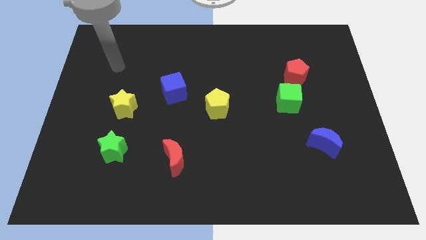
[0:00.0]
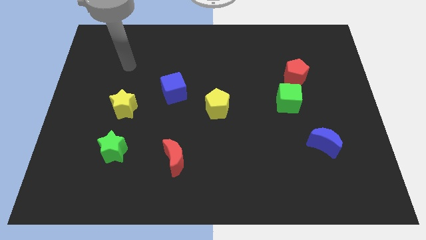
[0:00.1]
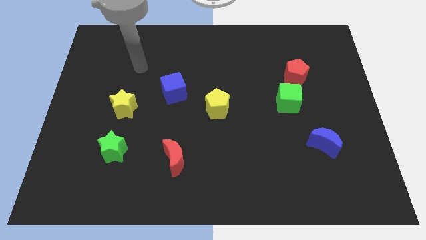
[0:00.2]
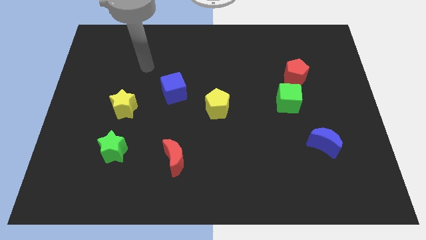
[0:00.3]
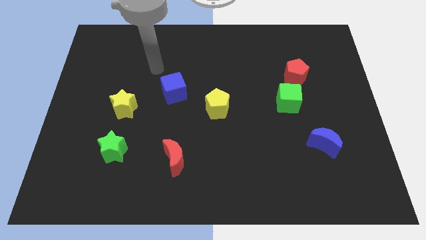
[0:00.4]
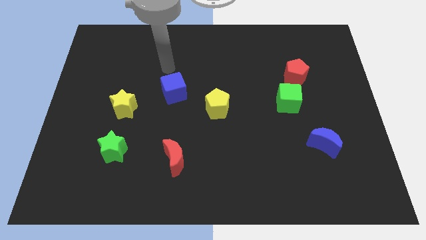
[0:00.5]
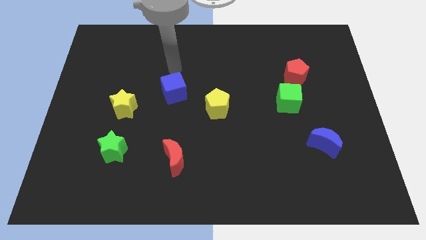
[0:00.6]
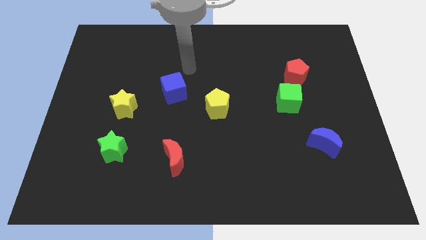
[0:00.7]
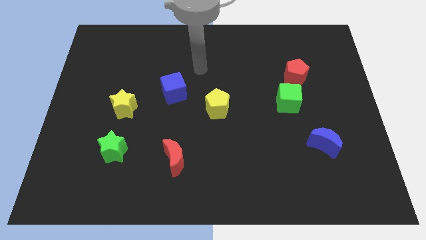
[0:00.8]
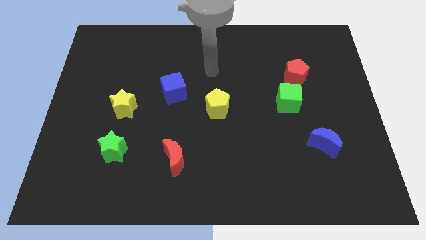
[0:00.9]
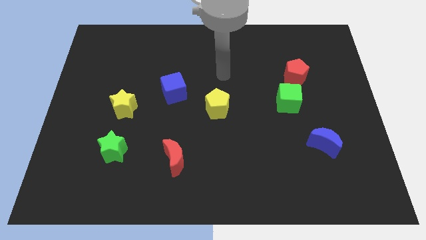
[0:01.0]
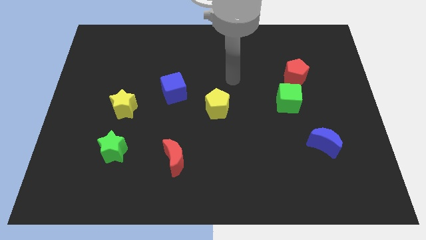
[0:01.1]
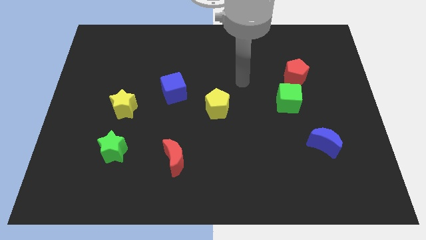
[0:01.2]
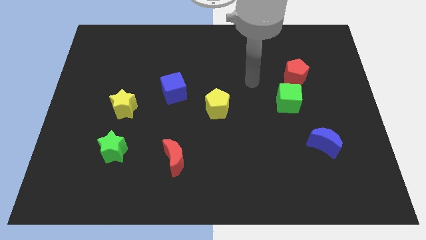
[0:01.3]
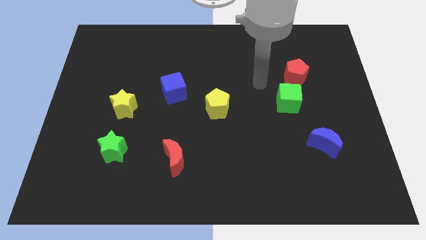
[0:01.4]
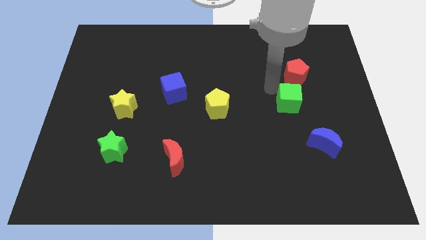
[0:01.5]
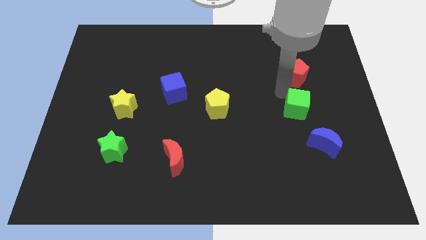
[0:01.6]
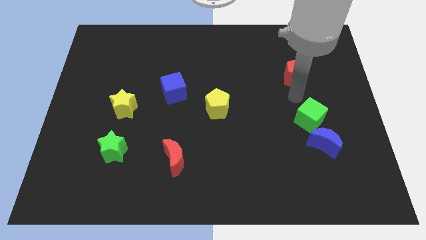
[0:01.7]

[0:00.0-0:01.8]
pull the red pentagon apart from the green cube

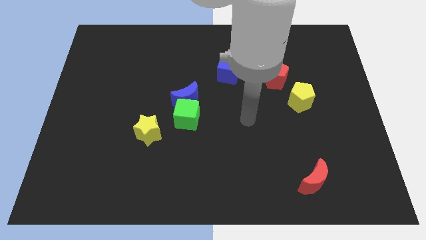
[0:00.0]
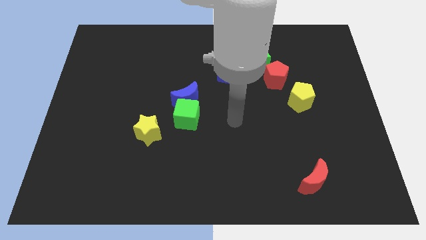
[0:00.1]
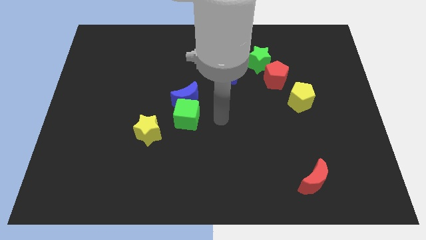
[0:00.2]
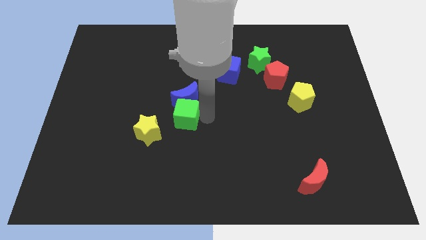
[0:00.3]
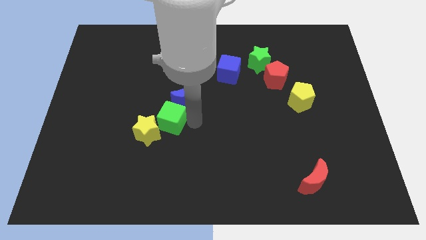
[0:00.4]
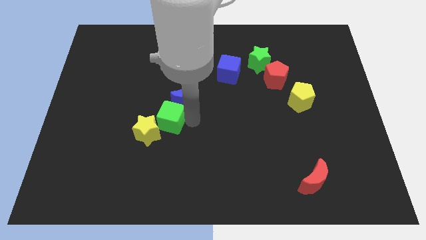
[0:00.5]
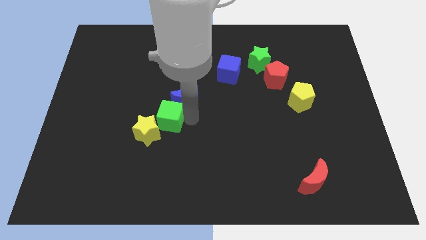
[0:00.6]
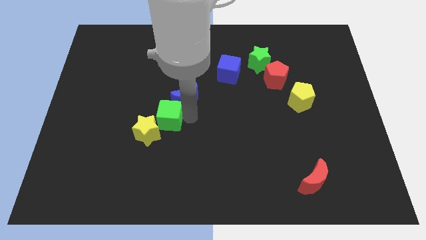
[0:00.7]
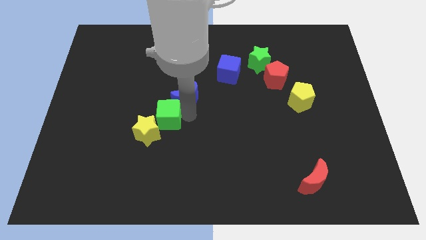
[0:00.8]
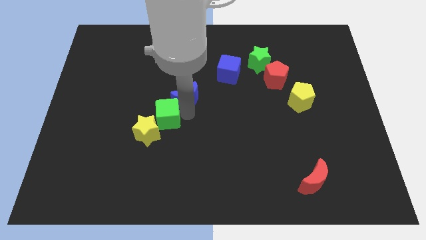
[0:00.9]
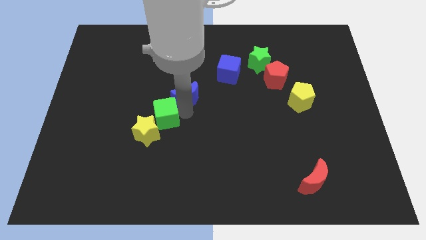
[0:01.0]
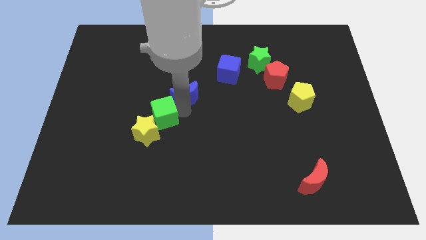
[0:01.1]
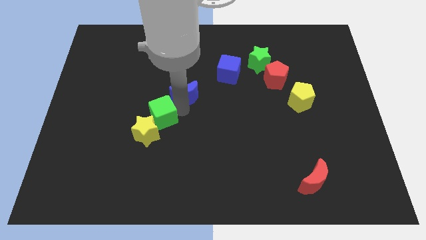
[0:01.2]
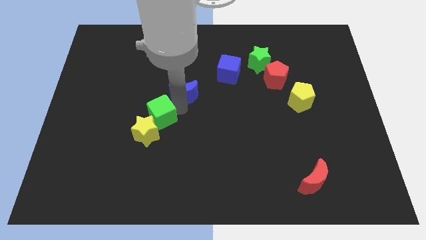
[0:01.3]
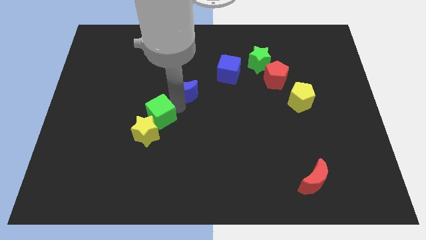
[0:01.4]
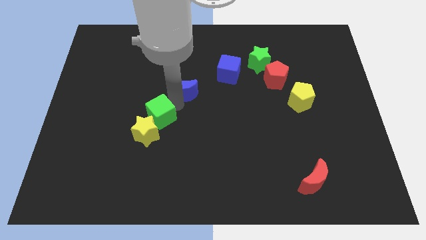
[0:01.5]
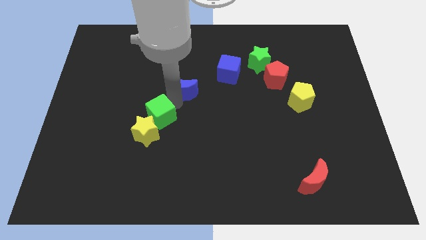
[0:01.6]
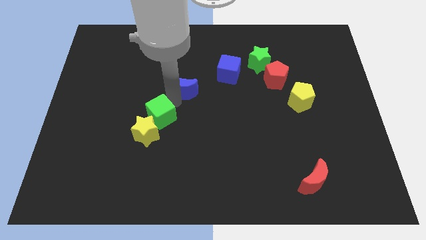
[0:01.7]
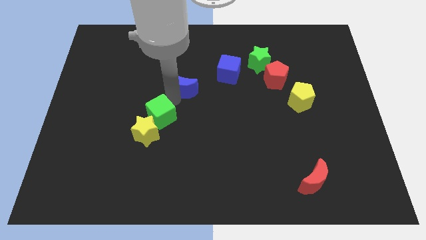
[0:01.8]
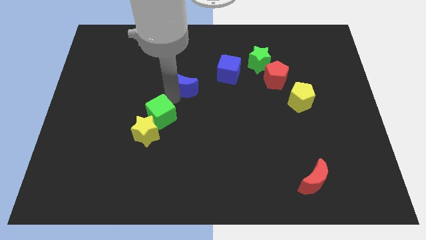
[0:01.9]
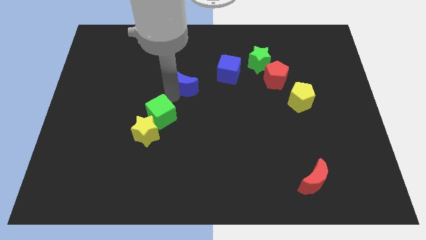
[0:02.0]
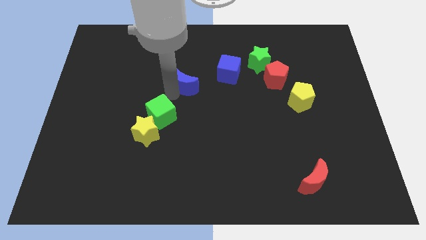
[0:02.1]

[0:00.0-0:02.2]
move the blue moon away from the green cube

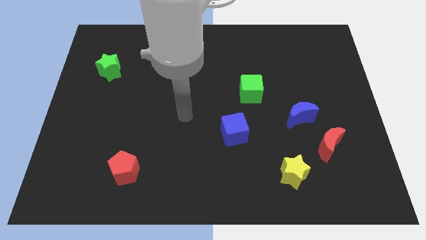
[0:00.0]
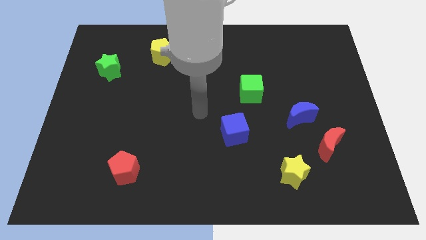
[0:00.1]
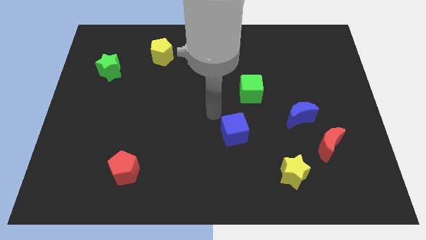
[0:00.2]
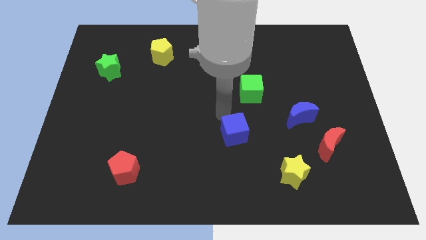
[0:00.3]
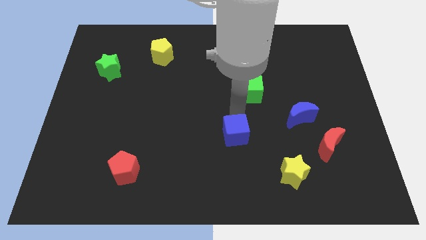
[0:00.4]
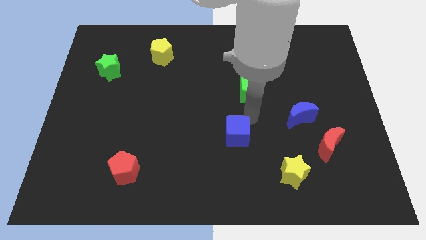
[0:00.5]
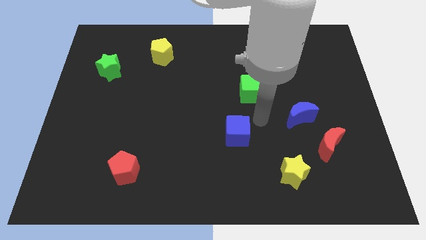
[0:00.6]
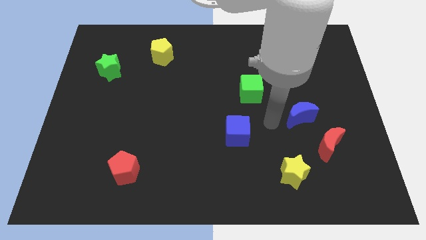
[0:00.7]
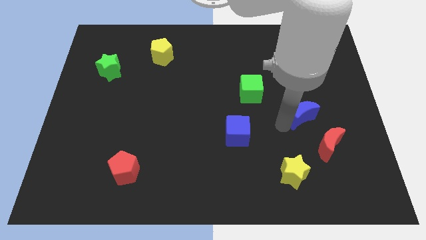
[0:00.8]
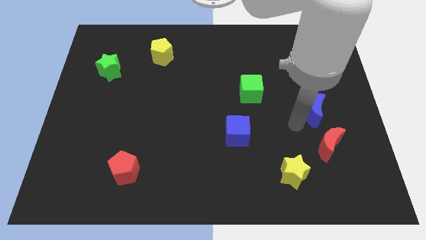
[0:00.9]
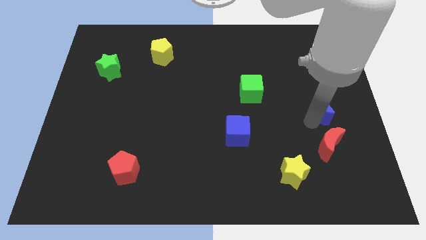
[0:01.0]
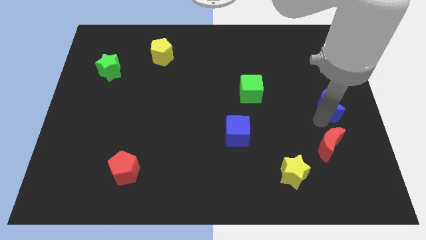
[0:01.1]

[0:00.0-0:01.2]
pull the red moon apart from the blue moon

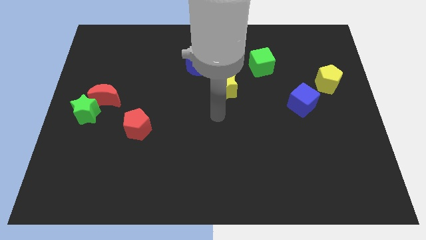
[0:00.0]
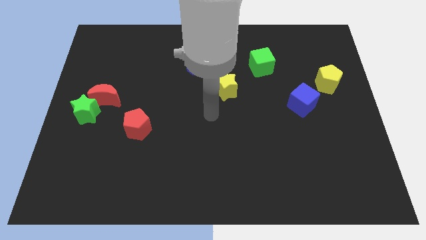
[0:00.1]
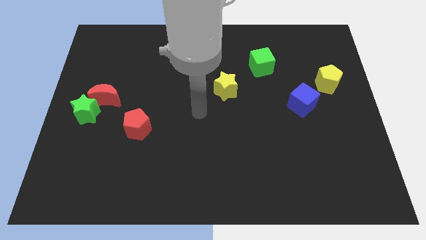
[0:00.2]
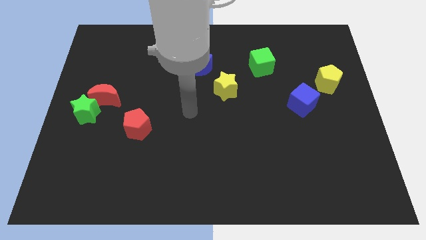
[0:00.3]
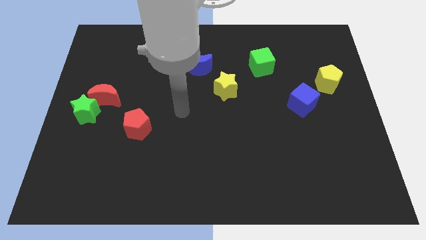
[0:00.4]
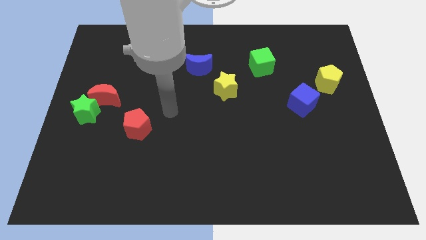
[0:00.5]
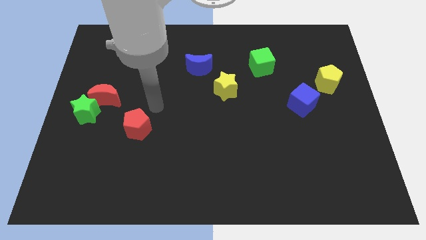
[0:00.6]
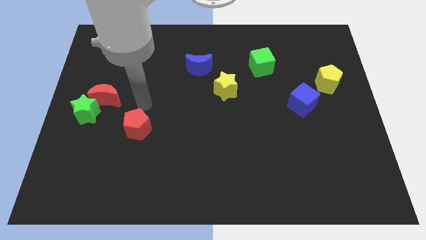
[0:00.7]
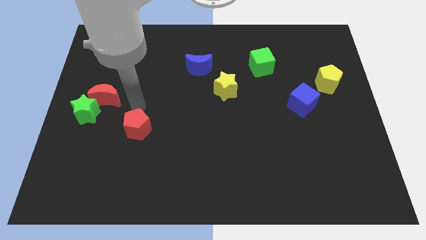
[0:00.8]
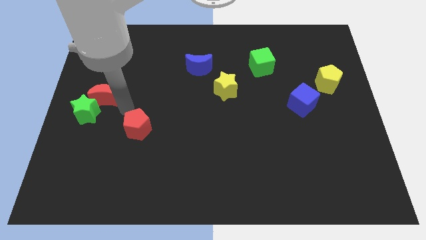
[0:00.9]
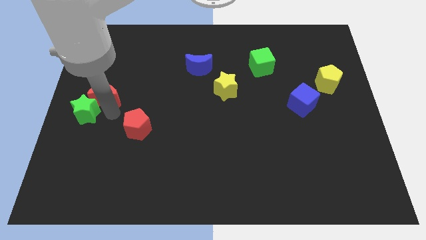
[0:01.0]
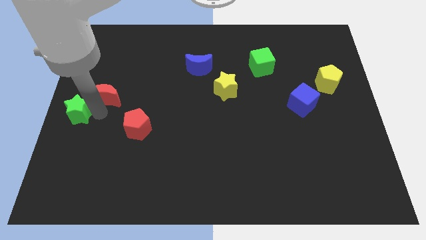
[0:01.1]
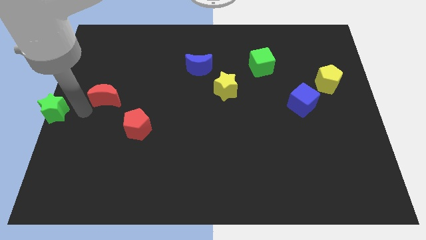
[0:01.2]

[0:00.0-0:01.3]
pull the red moon apart from the green star

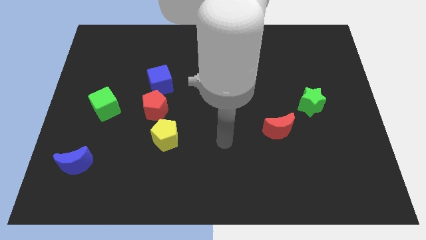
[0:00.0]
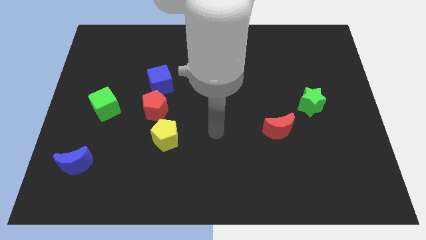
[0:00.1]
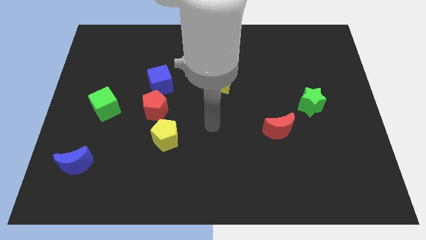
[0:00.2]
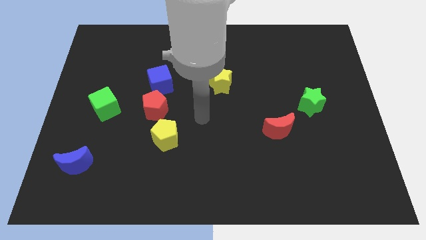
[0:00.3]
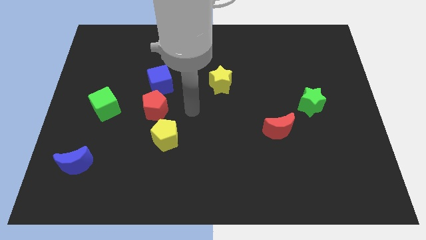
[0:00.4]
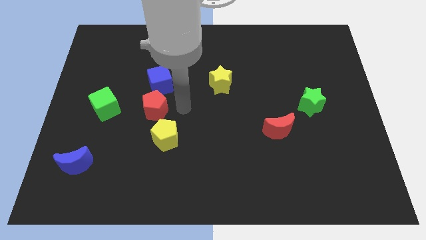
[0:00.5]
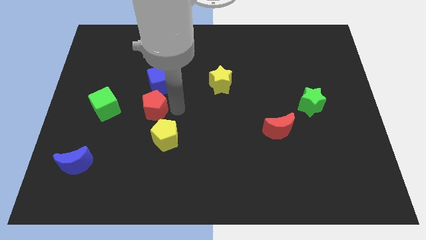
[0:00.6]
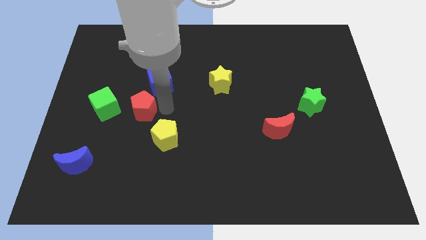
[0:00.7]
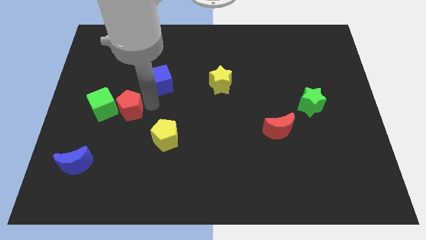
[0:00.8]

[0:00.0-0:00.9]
separate the blue cube from the red pentagon

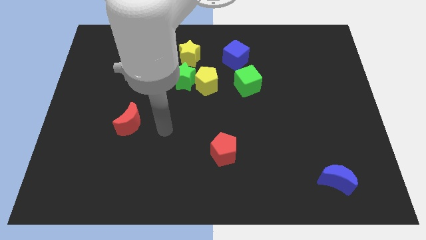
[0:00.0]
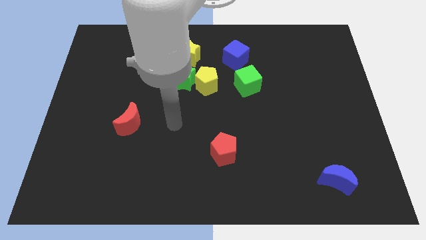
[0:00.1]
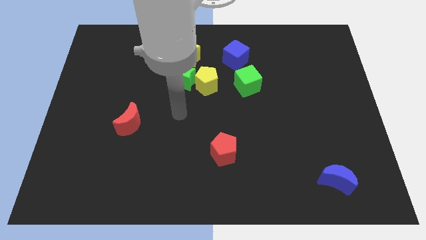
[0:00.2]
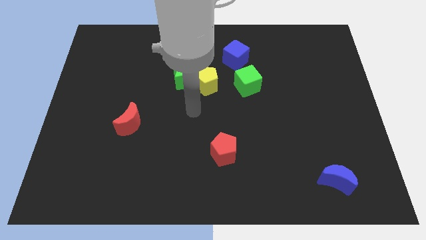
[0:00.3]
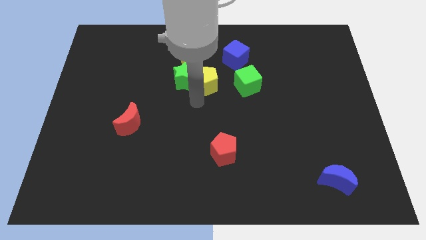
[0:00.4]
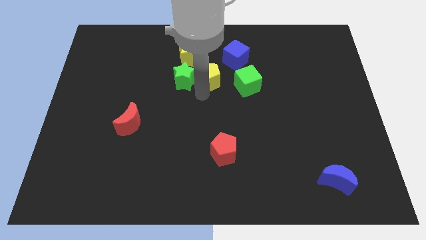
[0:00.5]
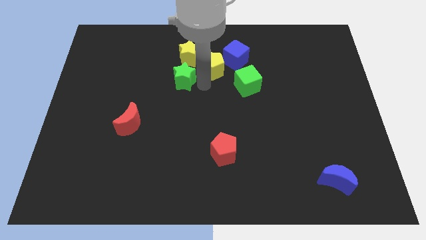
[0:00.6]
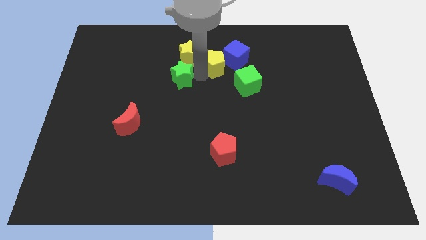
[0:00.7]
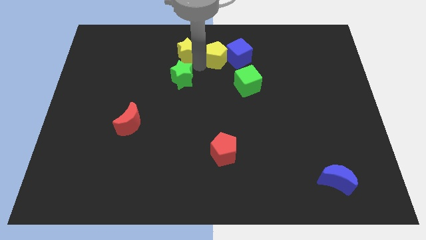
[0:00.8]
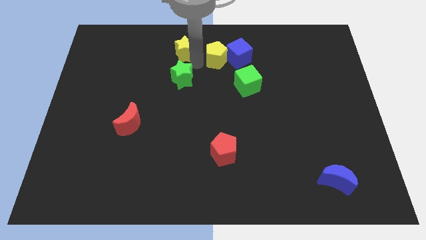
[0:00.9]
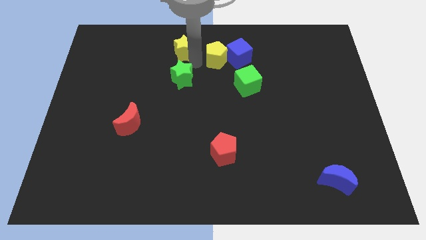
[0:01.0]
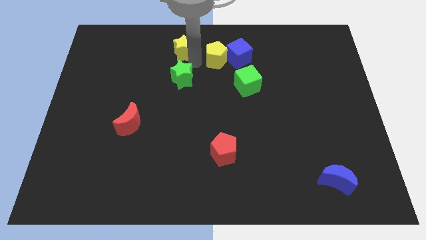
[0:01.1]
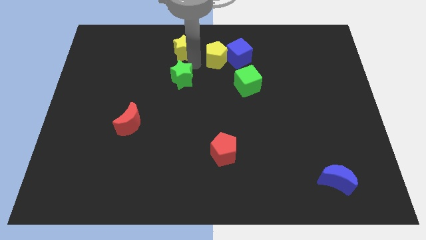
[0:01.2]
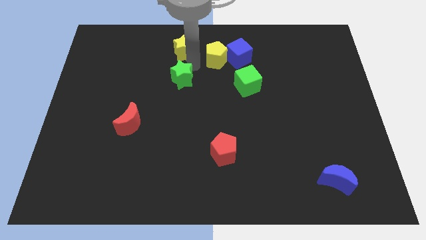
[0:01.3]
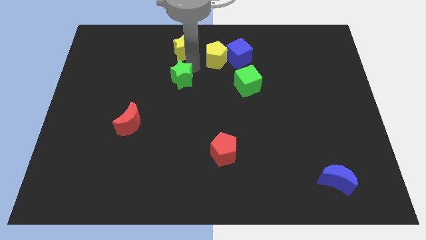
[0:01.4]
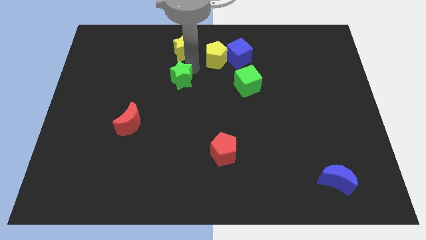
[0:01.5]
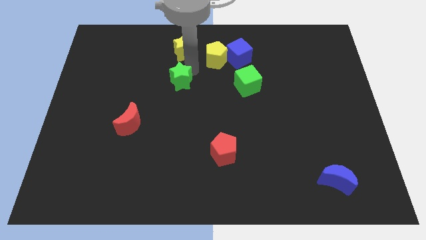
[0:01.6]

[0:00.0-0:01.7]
separate the green star from the yellow pentagon and yellow star

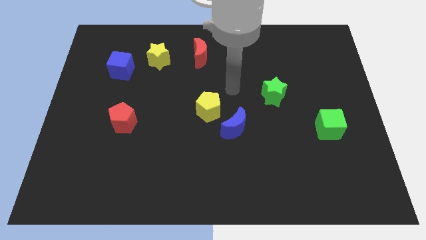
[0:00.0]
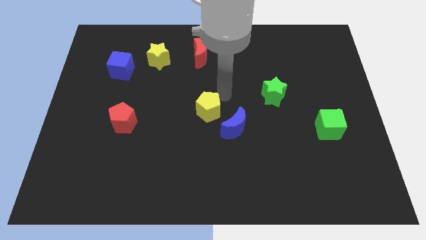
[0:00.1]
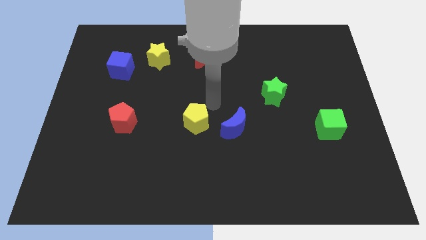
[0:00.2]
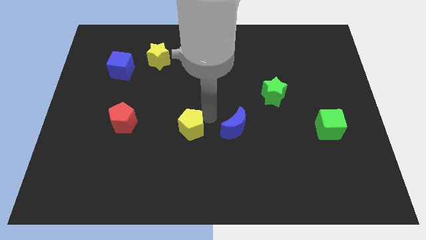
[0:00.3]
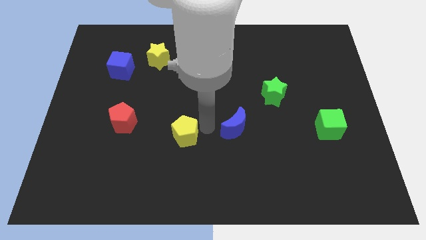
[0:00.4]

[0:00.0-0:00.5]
move the blue moon away from the yellow pentagon
